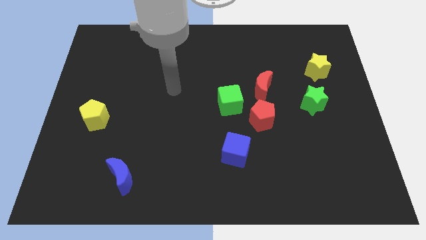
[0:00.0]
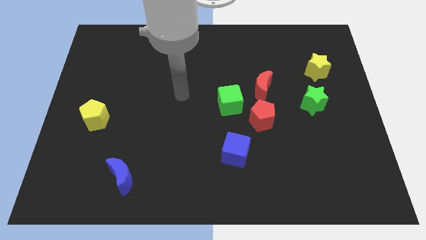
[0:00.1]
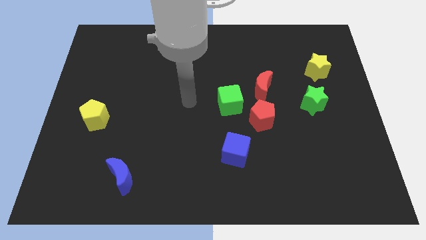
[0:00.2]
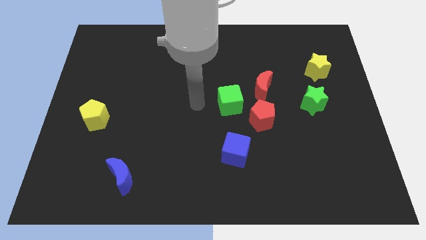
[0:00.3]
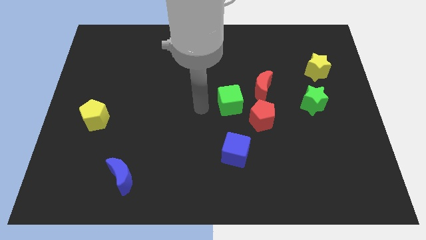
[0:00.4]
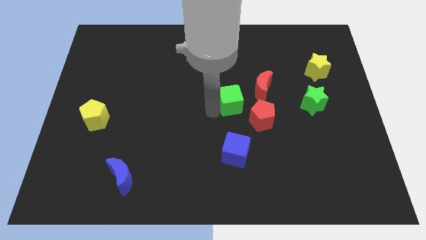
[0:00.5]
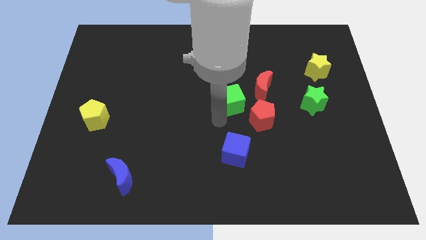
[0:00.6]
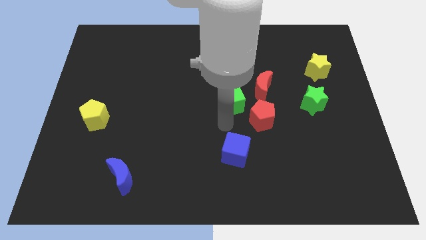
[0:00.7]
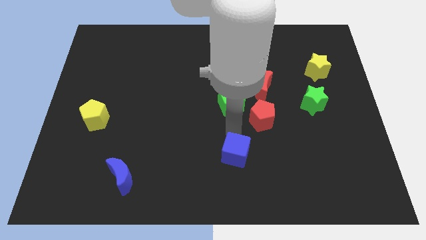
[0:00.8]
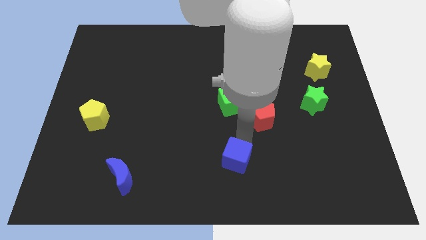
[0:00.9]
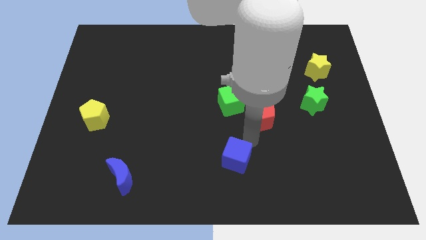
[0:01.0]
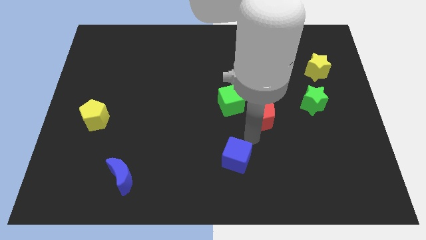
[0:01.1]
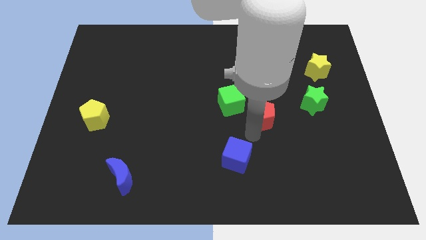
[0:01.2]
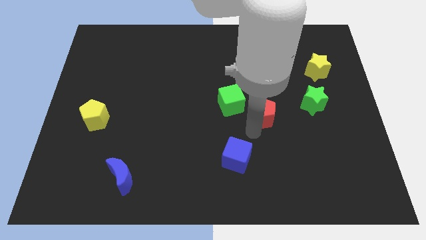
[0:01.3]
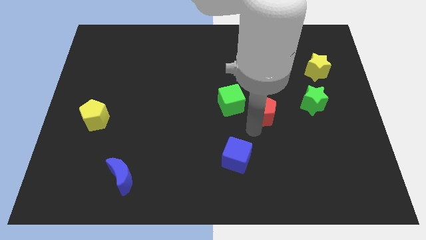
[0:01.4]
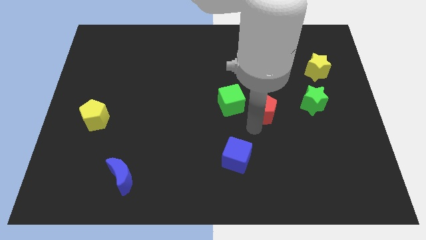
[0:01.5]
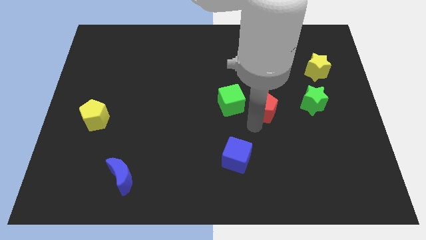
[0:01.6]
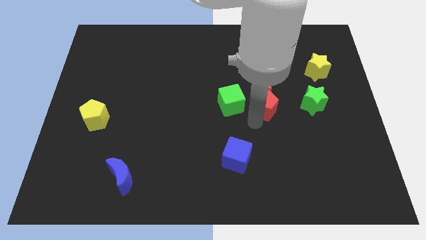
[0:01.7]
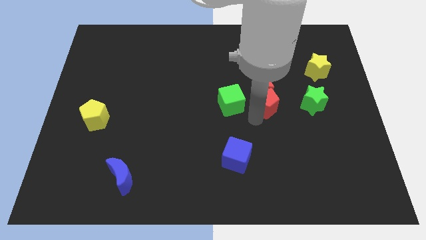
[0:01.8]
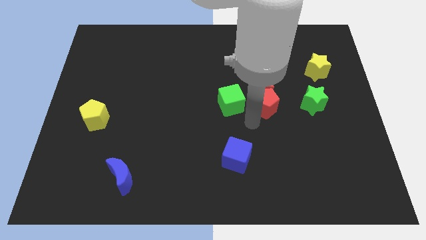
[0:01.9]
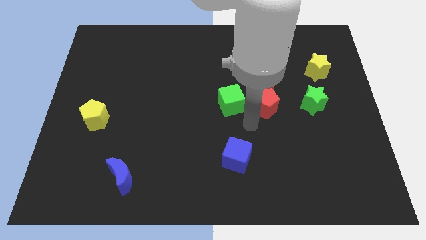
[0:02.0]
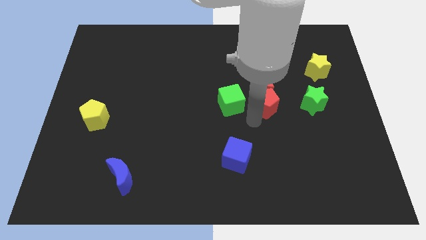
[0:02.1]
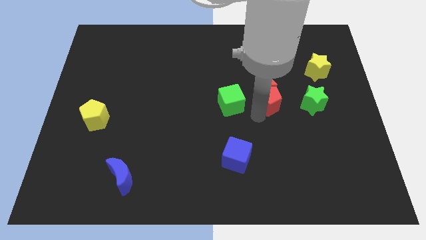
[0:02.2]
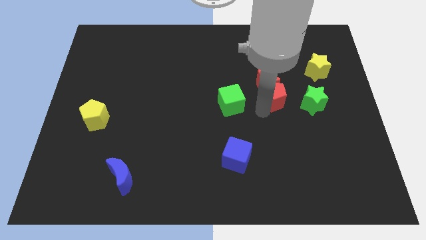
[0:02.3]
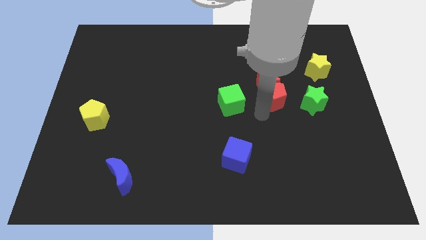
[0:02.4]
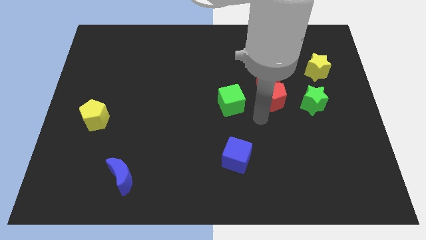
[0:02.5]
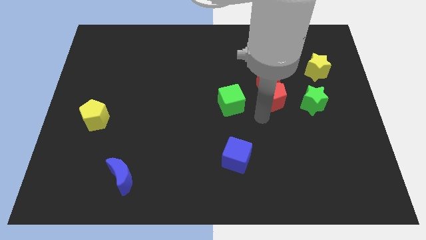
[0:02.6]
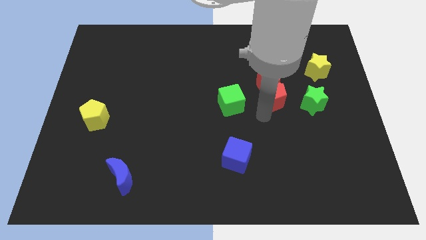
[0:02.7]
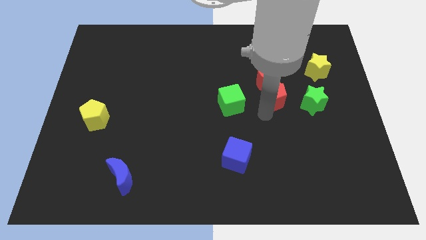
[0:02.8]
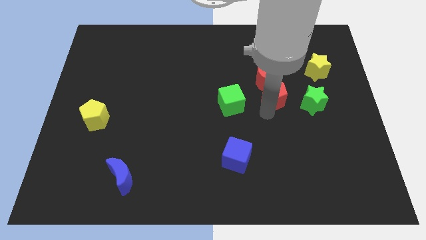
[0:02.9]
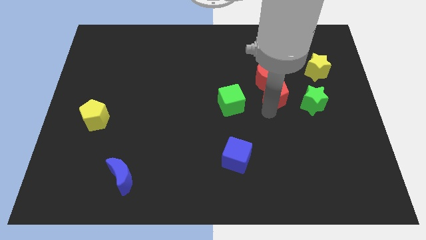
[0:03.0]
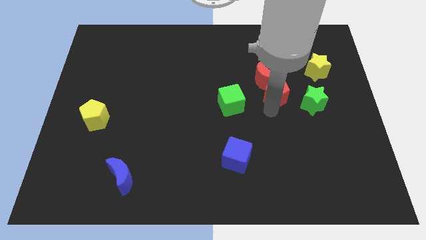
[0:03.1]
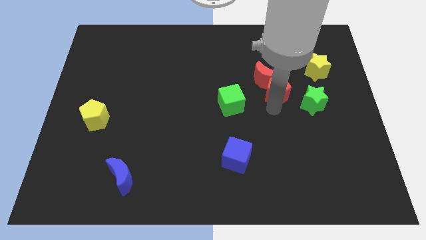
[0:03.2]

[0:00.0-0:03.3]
slide the red pentagon upwards a little

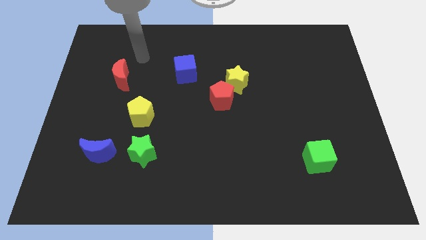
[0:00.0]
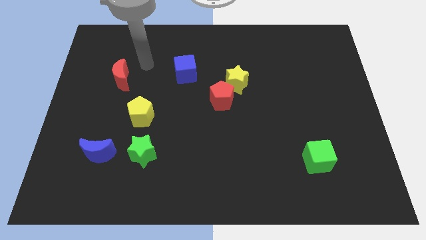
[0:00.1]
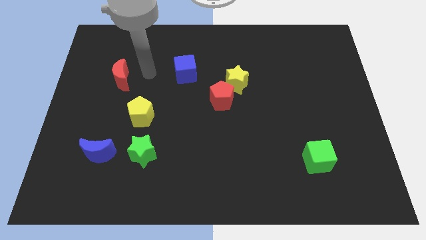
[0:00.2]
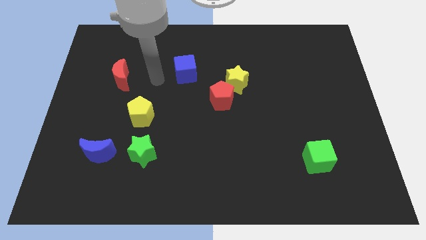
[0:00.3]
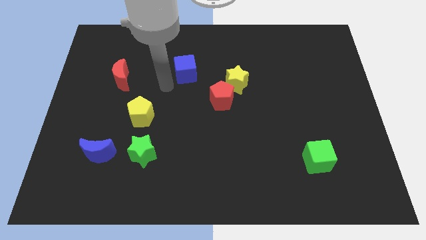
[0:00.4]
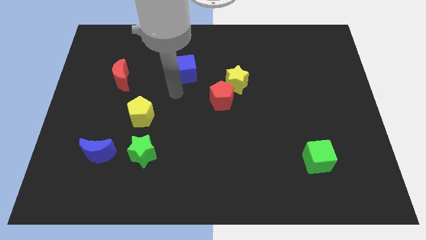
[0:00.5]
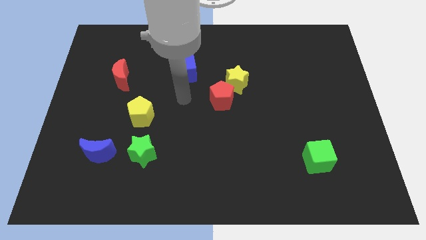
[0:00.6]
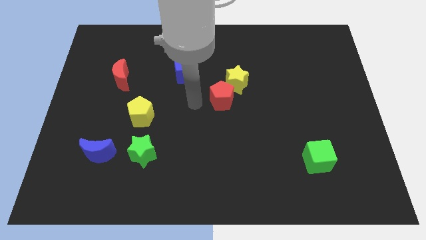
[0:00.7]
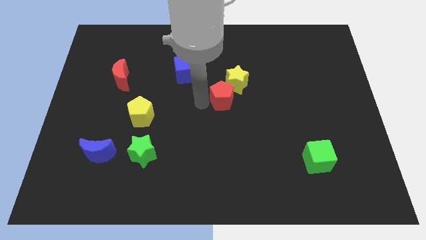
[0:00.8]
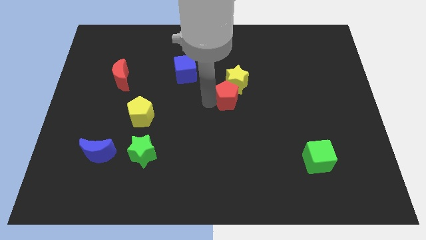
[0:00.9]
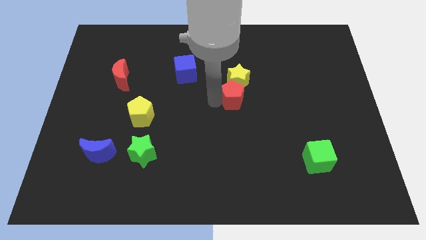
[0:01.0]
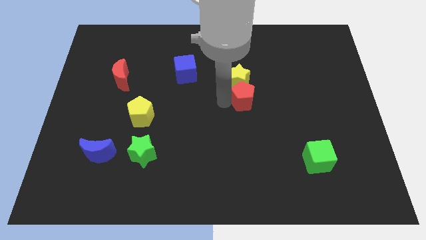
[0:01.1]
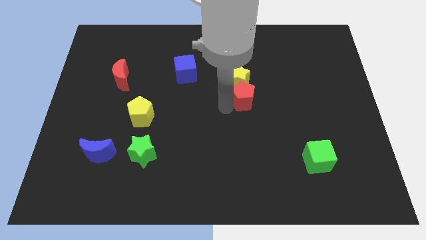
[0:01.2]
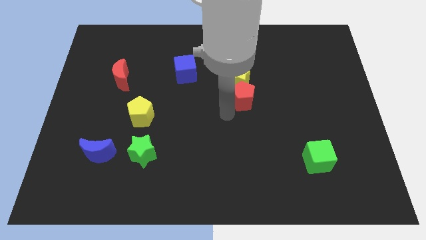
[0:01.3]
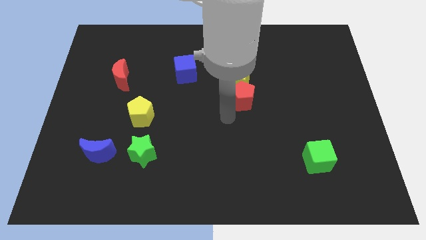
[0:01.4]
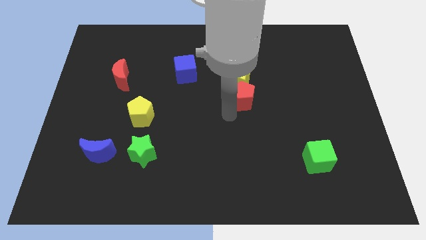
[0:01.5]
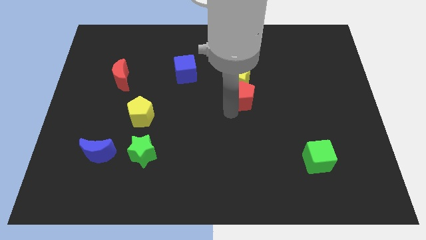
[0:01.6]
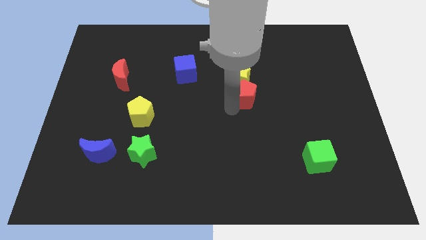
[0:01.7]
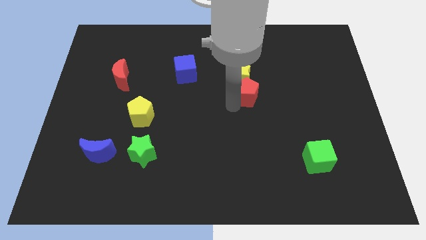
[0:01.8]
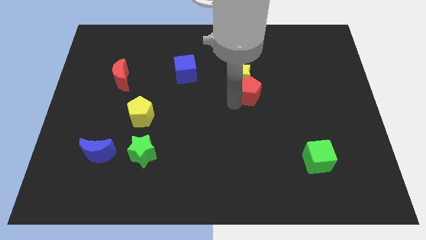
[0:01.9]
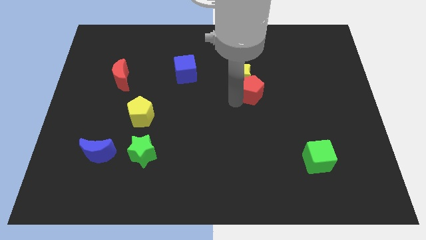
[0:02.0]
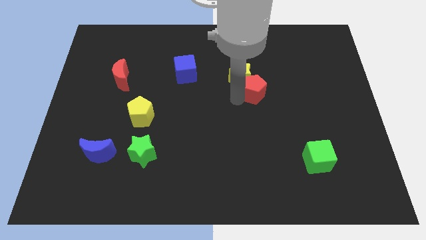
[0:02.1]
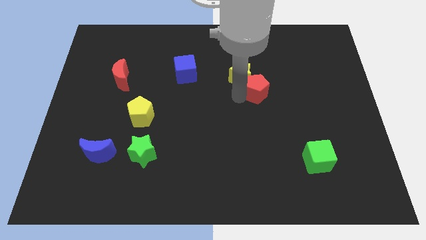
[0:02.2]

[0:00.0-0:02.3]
move the red pentagon upwards and right diagonally slightly

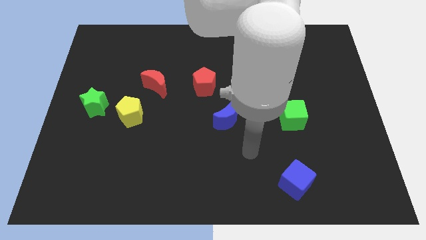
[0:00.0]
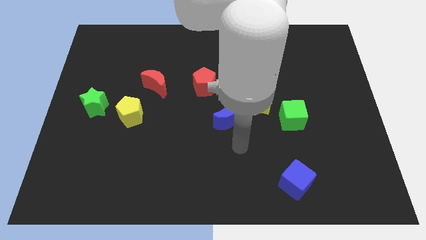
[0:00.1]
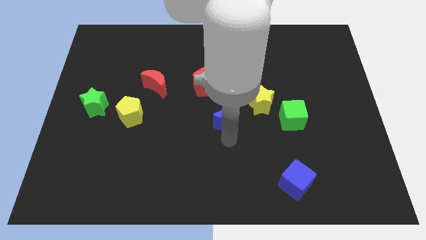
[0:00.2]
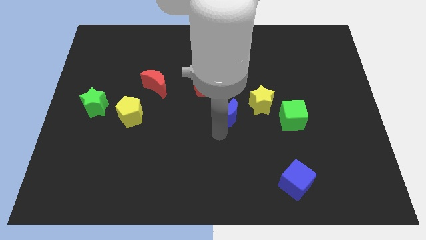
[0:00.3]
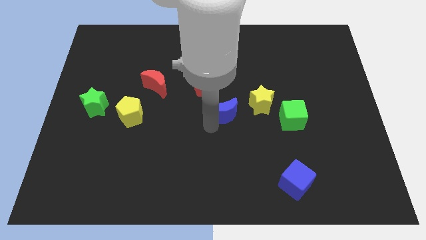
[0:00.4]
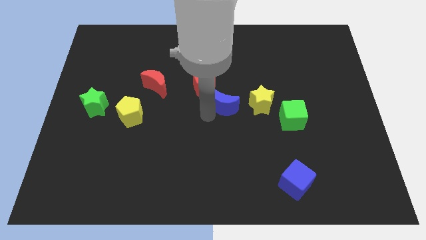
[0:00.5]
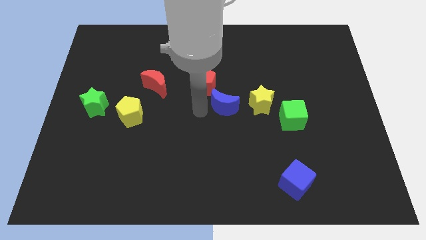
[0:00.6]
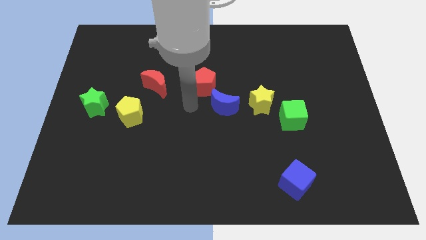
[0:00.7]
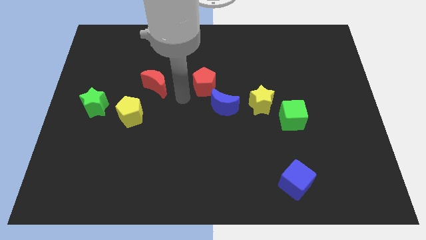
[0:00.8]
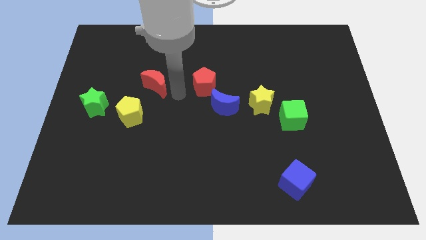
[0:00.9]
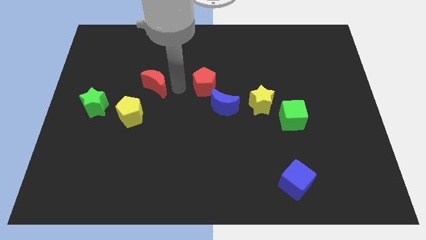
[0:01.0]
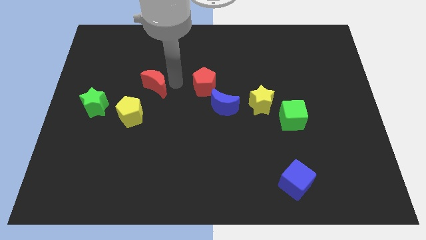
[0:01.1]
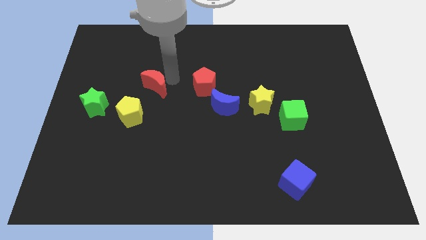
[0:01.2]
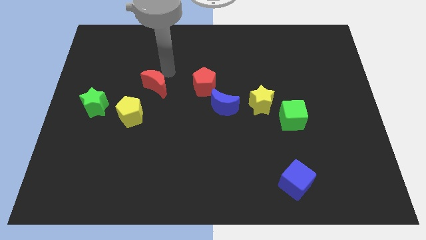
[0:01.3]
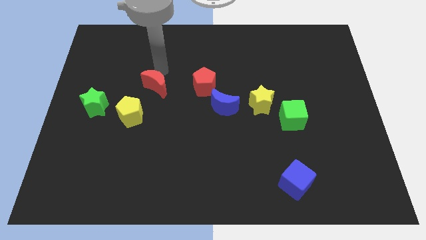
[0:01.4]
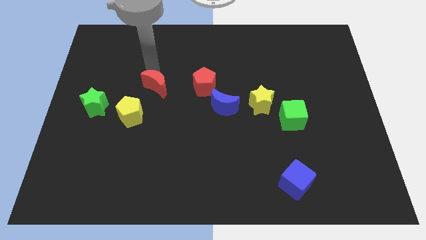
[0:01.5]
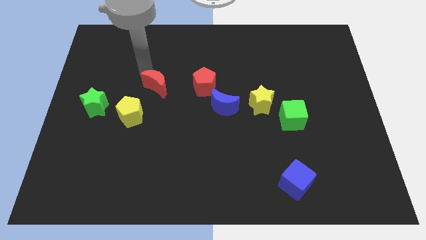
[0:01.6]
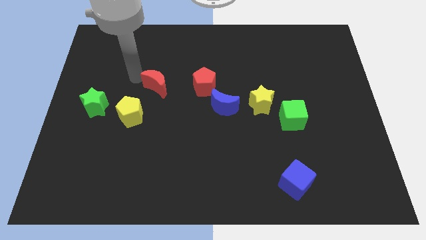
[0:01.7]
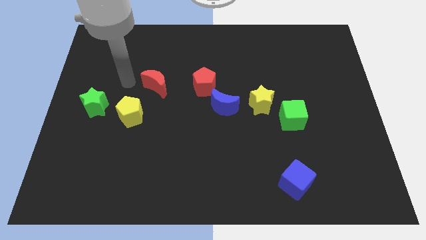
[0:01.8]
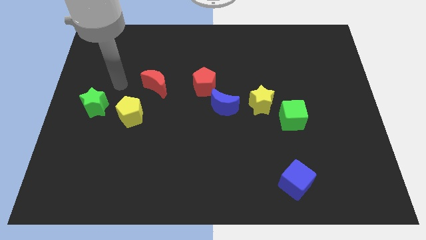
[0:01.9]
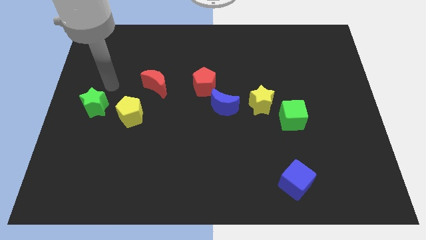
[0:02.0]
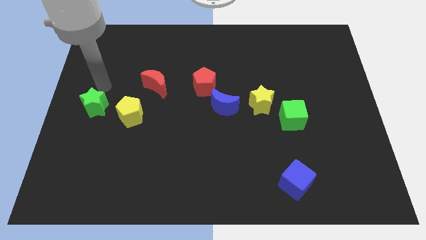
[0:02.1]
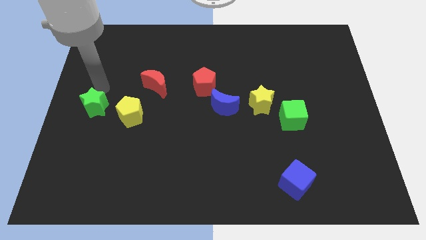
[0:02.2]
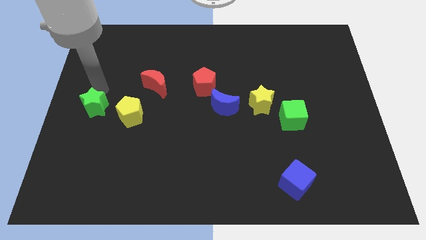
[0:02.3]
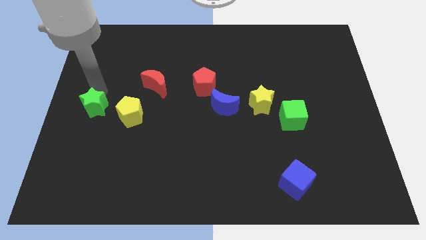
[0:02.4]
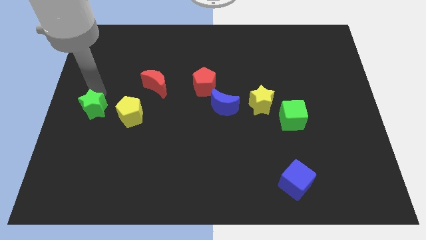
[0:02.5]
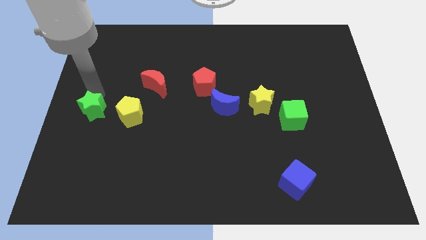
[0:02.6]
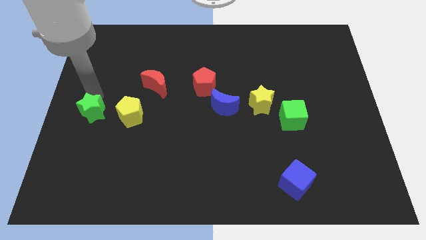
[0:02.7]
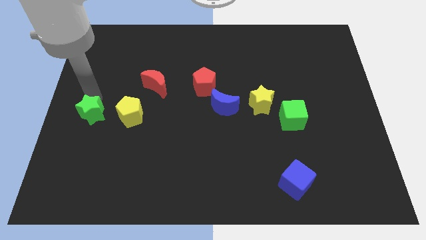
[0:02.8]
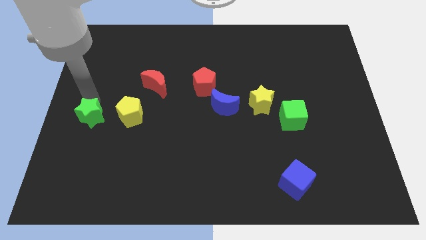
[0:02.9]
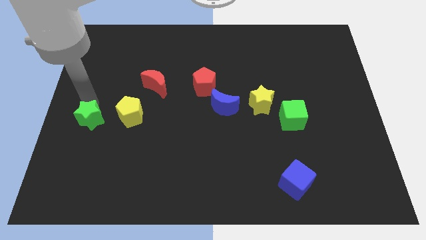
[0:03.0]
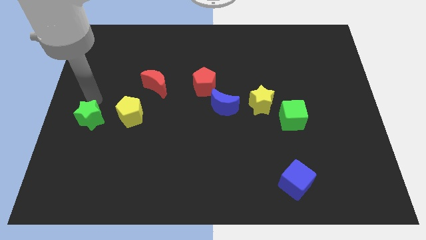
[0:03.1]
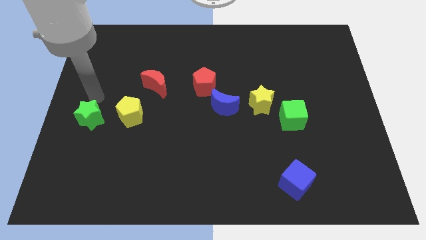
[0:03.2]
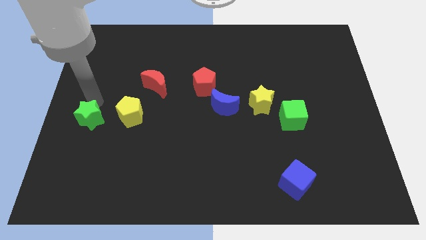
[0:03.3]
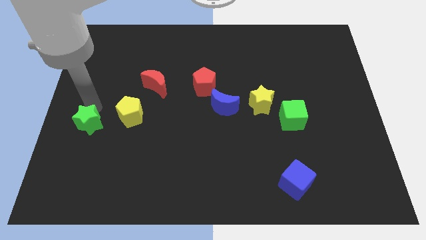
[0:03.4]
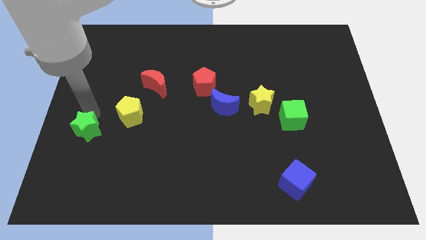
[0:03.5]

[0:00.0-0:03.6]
push the green star somewhat down
